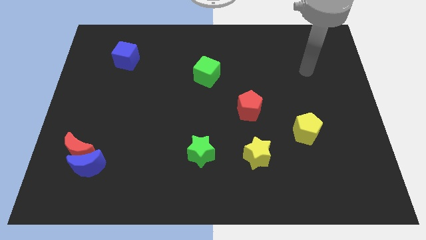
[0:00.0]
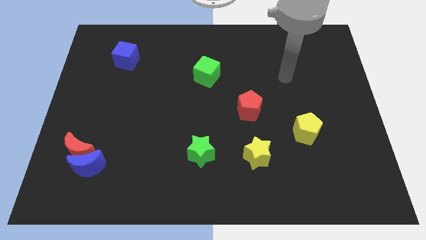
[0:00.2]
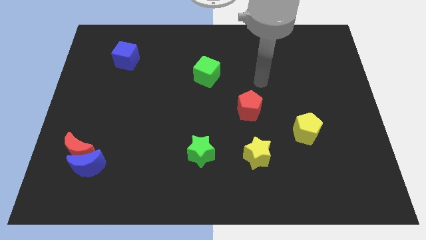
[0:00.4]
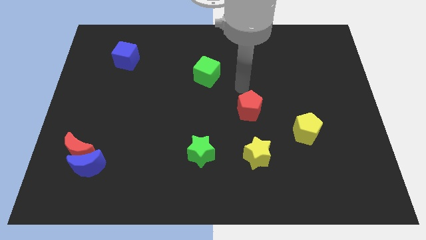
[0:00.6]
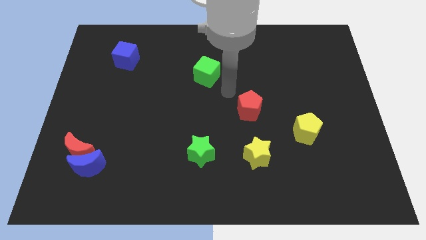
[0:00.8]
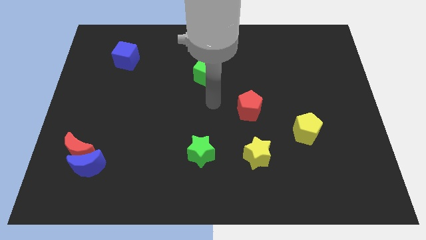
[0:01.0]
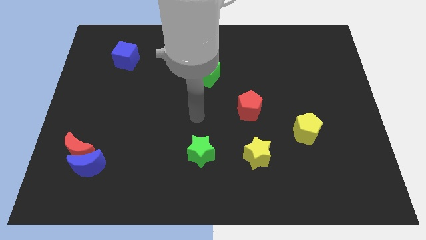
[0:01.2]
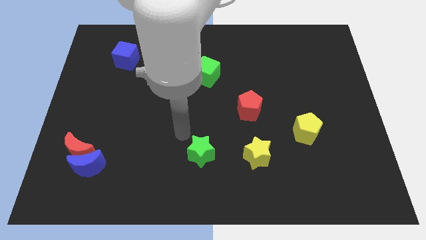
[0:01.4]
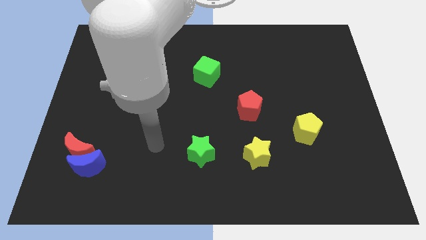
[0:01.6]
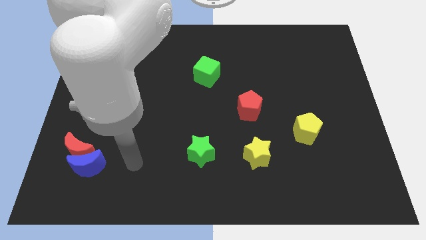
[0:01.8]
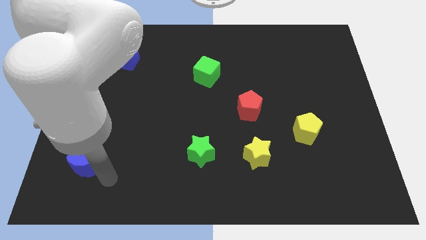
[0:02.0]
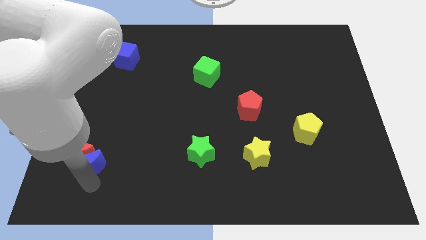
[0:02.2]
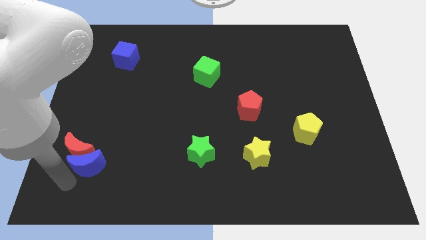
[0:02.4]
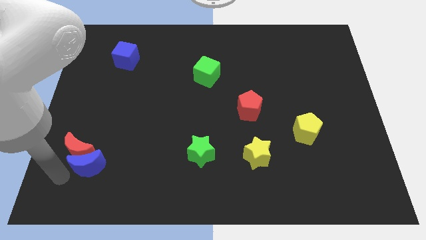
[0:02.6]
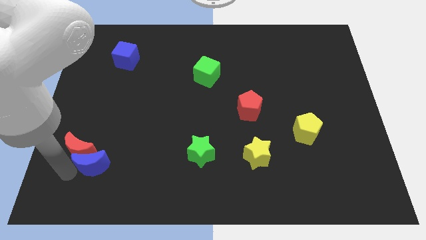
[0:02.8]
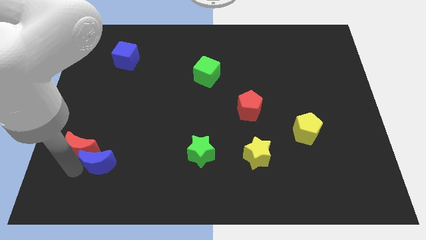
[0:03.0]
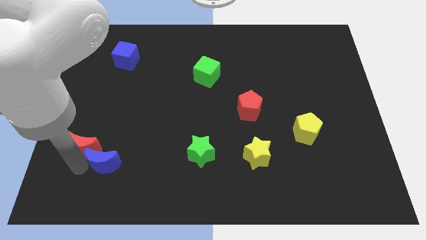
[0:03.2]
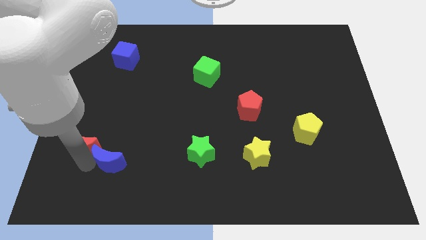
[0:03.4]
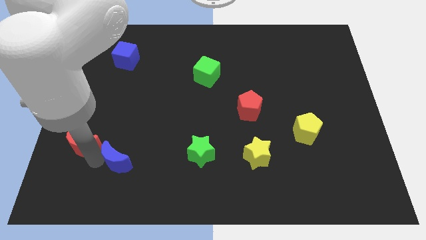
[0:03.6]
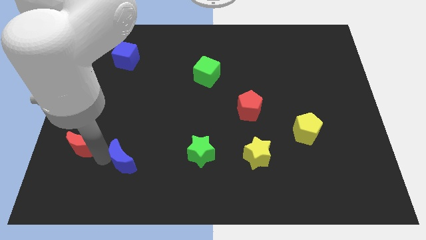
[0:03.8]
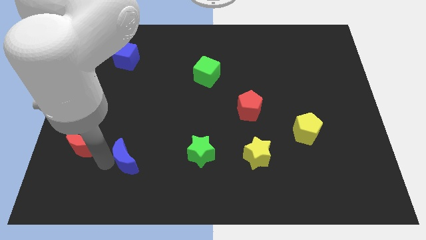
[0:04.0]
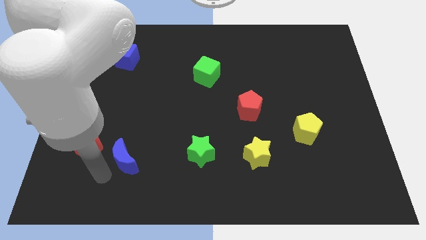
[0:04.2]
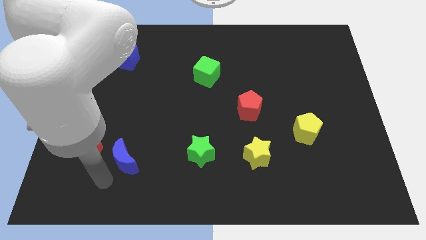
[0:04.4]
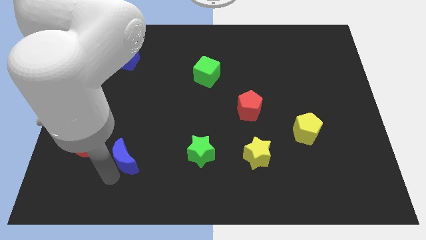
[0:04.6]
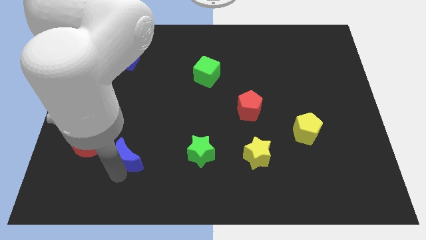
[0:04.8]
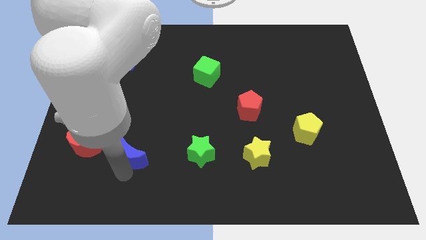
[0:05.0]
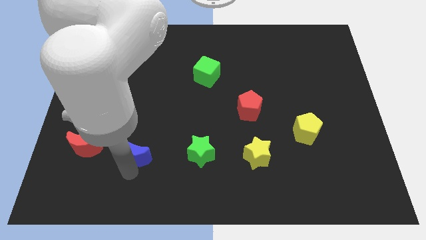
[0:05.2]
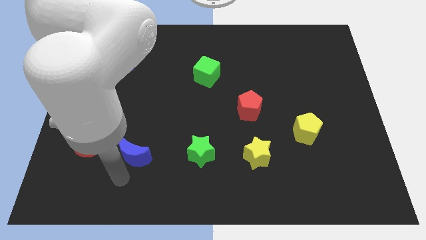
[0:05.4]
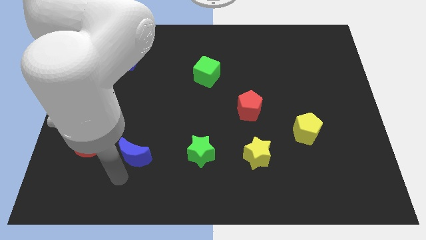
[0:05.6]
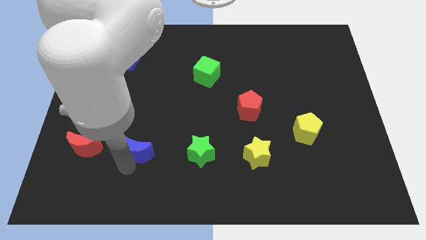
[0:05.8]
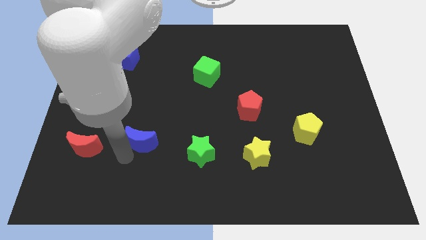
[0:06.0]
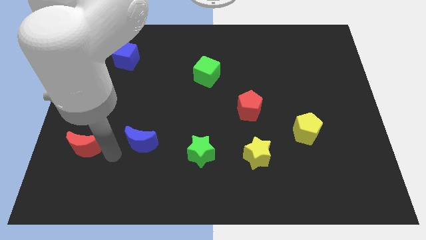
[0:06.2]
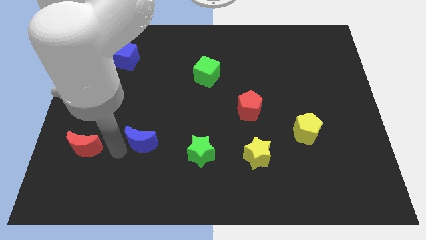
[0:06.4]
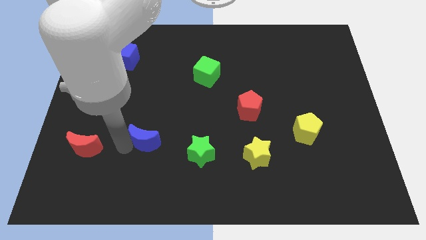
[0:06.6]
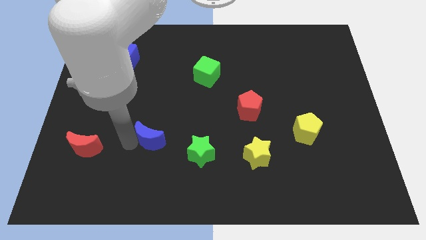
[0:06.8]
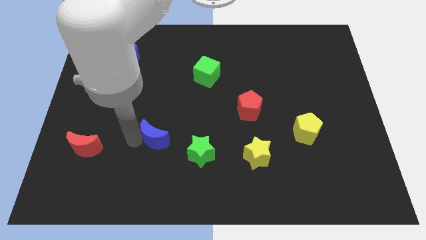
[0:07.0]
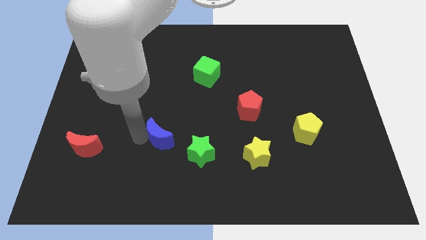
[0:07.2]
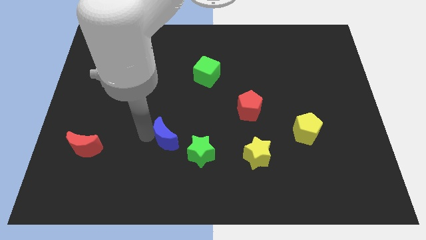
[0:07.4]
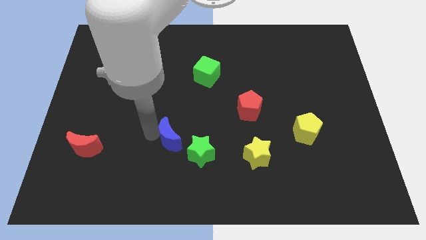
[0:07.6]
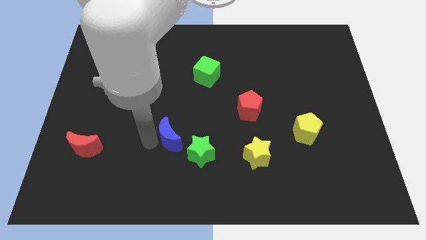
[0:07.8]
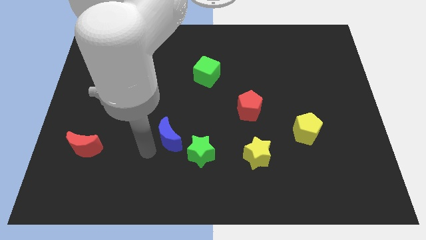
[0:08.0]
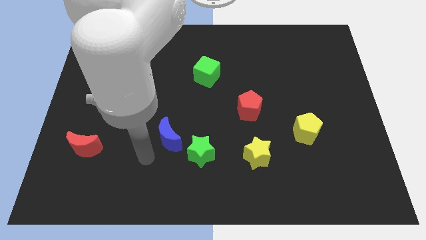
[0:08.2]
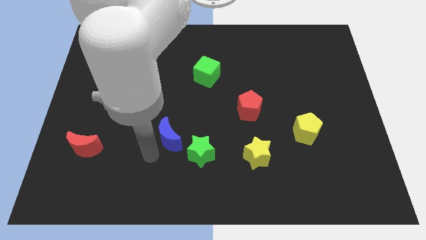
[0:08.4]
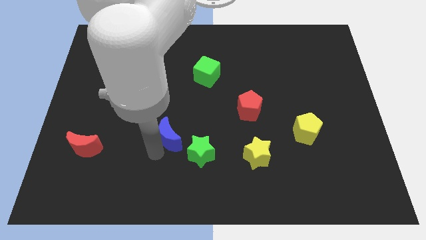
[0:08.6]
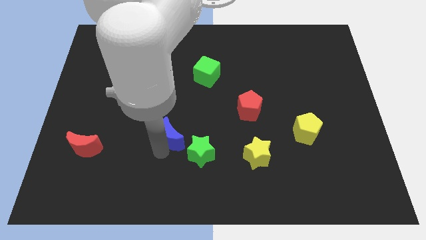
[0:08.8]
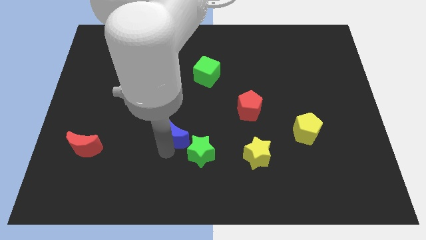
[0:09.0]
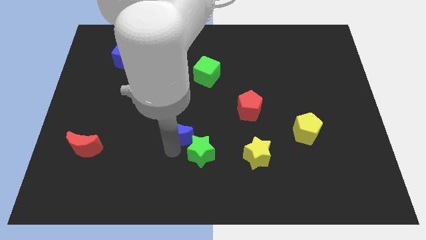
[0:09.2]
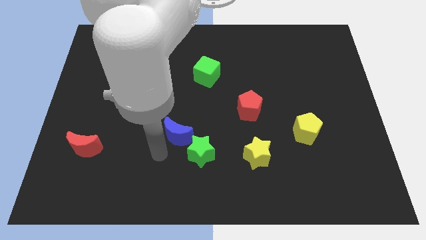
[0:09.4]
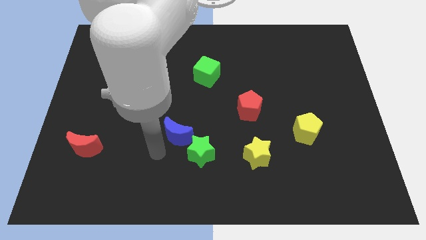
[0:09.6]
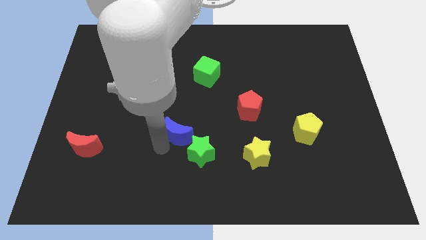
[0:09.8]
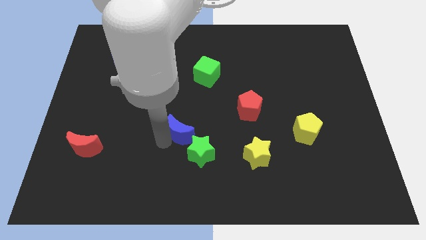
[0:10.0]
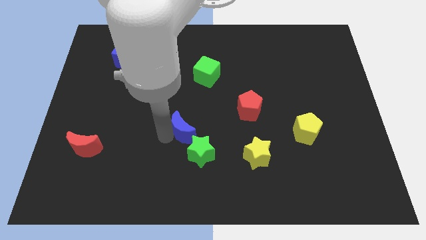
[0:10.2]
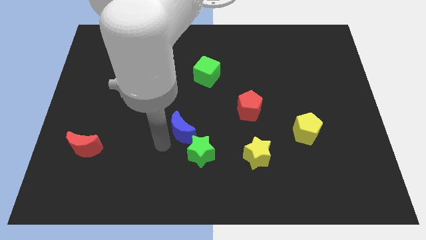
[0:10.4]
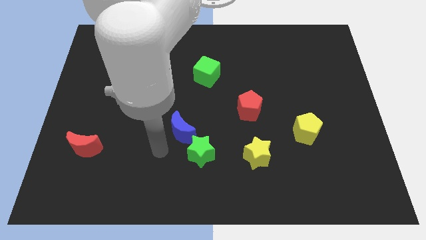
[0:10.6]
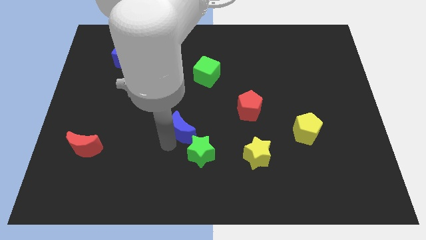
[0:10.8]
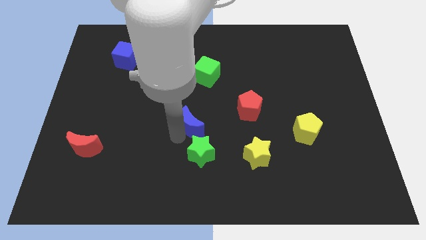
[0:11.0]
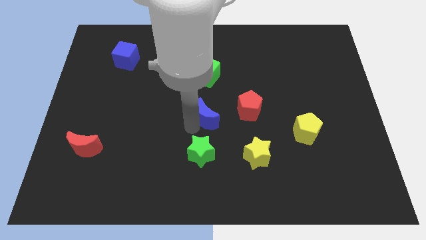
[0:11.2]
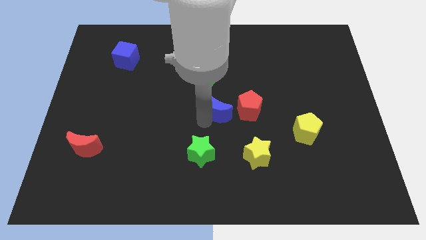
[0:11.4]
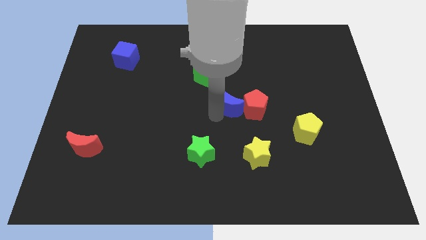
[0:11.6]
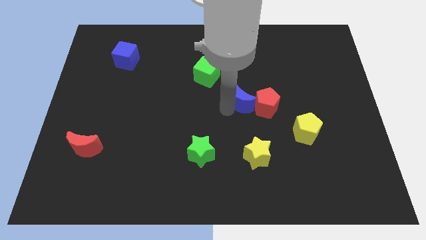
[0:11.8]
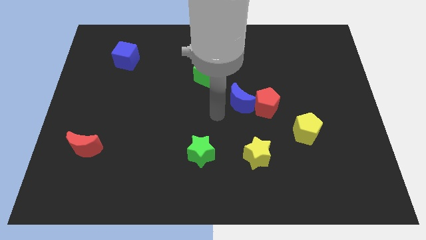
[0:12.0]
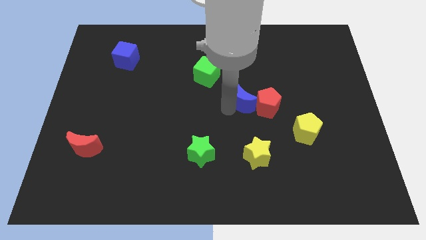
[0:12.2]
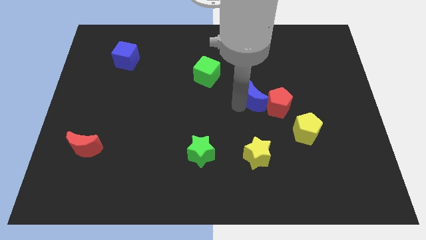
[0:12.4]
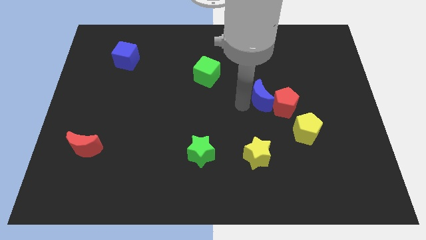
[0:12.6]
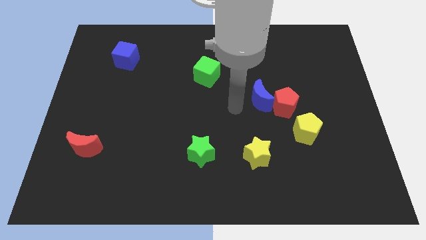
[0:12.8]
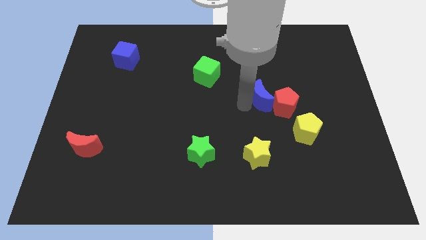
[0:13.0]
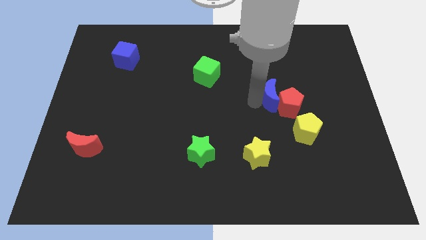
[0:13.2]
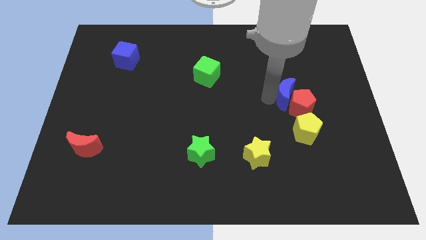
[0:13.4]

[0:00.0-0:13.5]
move the blue moon to the top side of the yellow pentagon

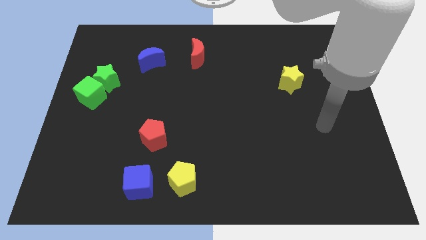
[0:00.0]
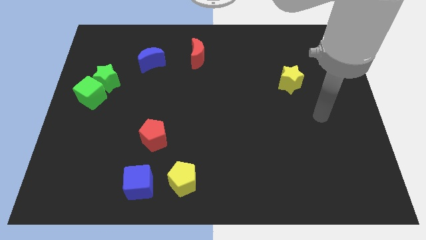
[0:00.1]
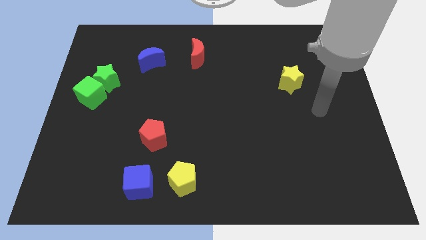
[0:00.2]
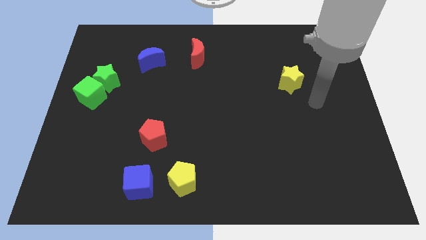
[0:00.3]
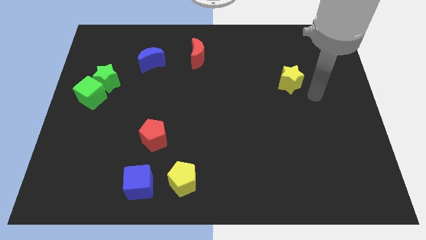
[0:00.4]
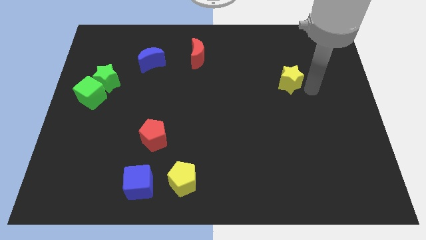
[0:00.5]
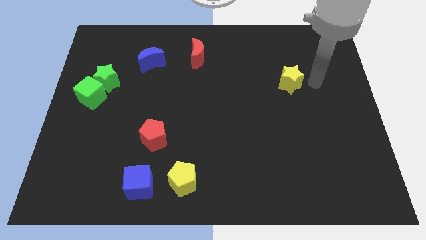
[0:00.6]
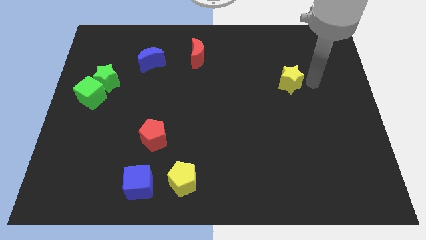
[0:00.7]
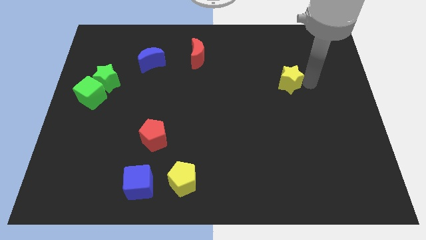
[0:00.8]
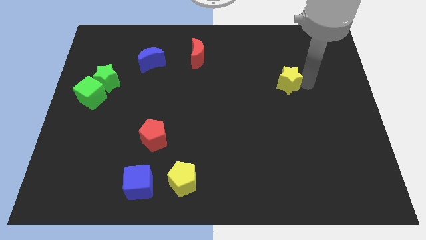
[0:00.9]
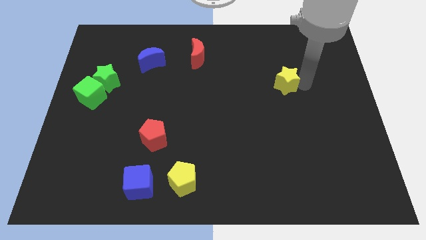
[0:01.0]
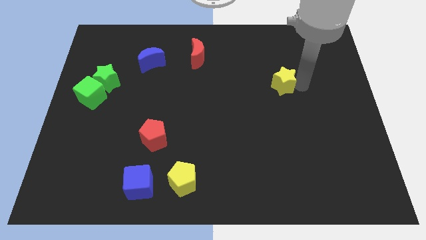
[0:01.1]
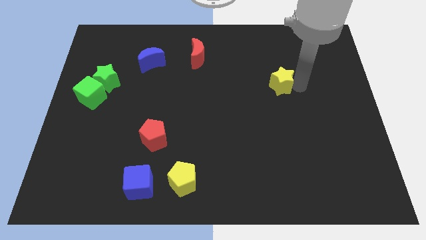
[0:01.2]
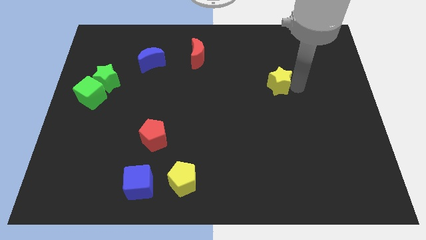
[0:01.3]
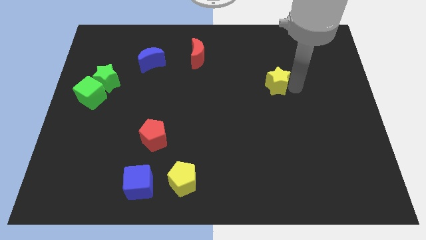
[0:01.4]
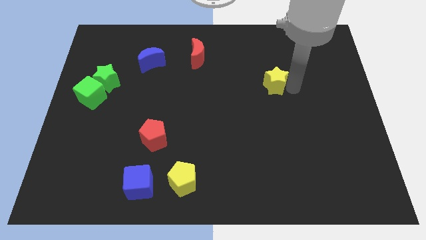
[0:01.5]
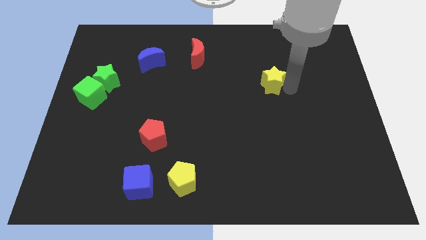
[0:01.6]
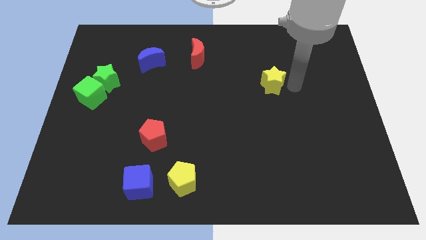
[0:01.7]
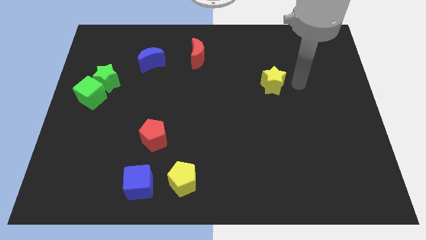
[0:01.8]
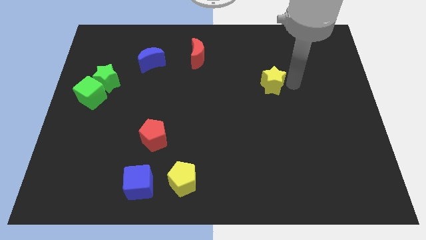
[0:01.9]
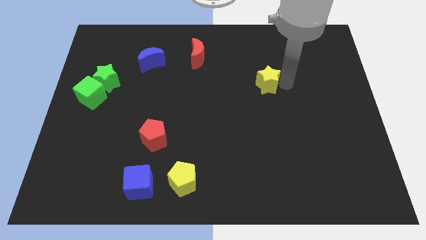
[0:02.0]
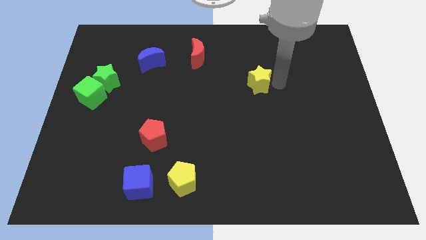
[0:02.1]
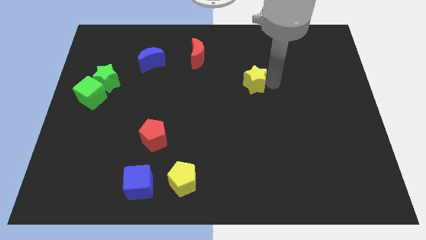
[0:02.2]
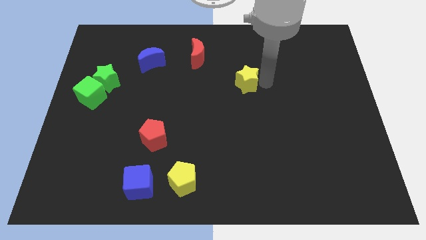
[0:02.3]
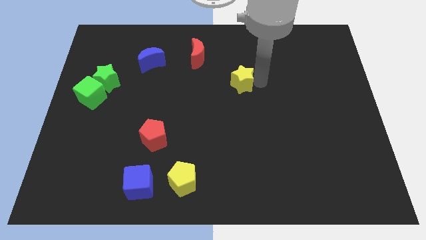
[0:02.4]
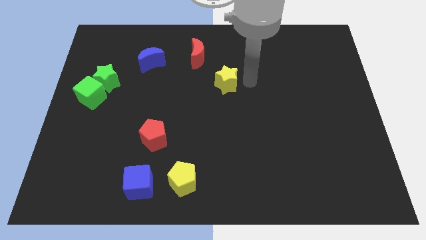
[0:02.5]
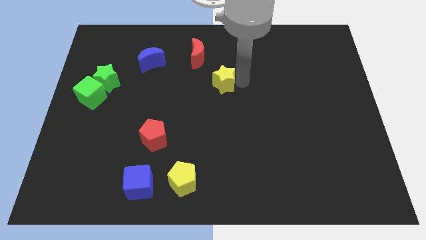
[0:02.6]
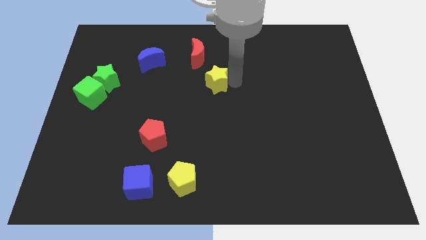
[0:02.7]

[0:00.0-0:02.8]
put the yellow star to the bottom of the red moon
